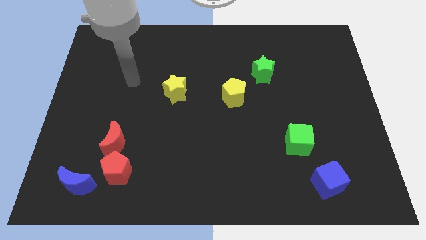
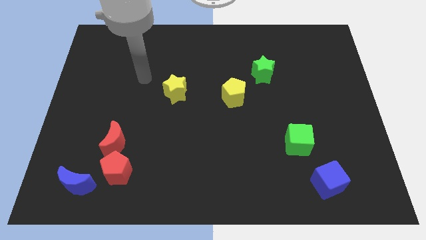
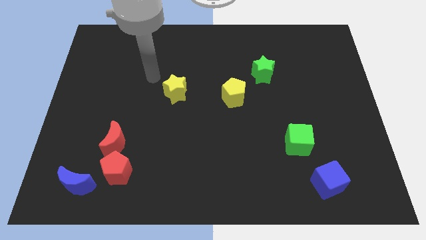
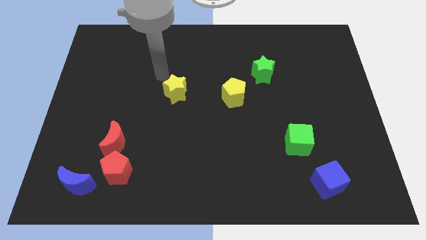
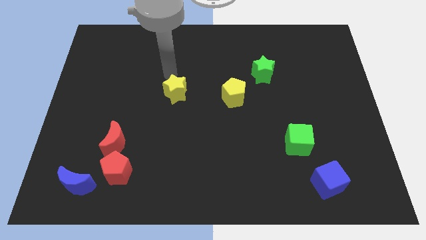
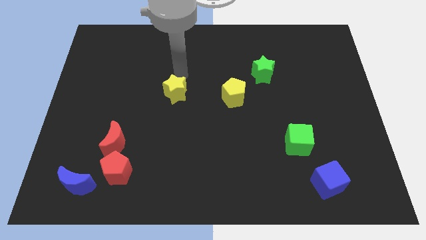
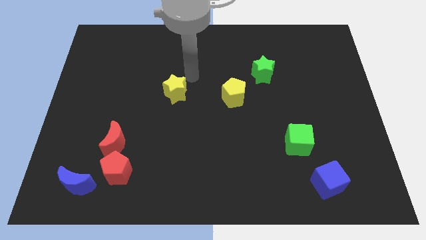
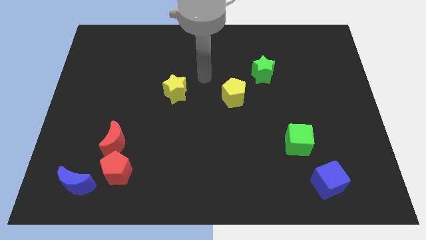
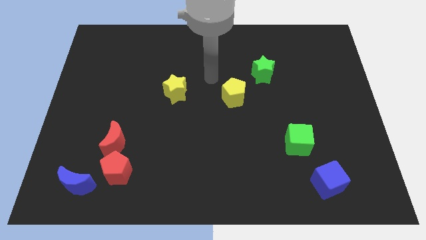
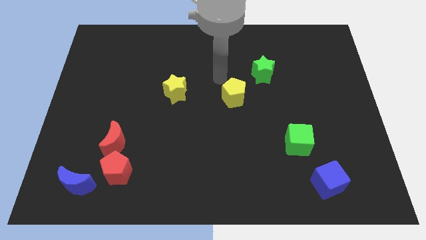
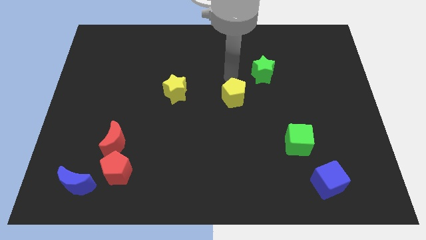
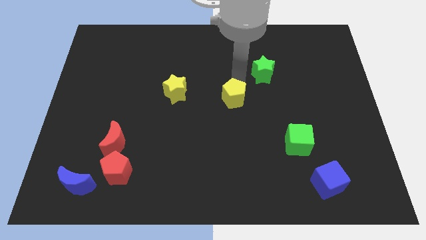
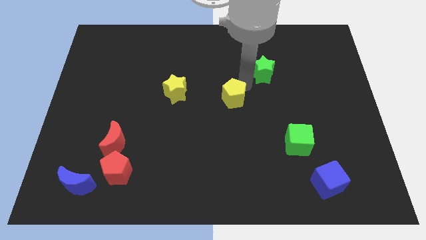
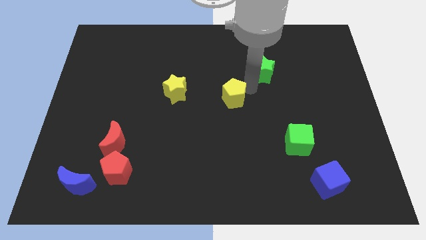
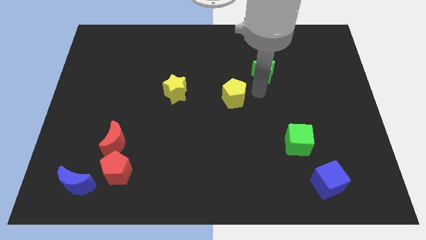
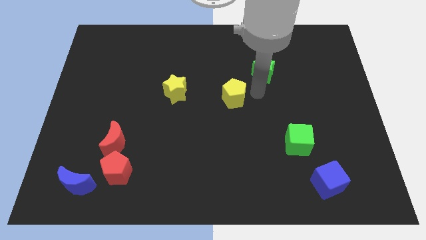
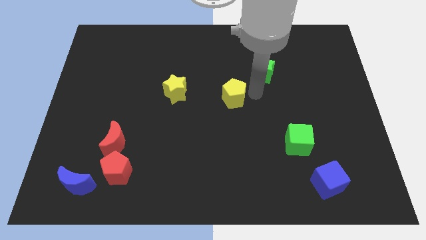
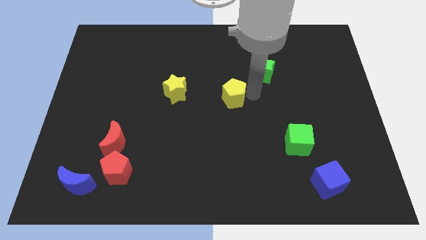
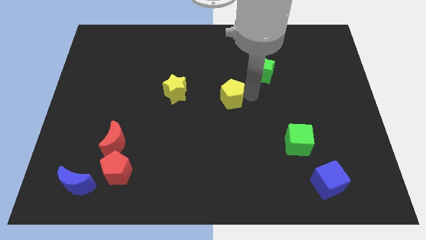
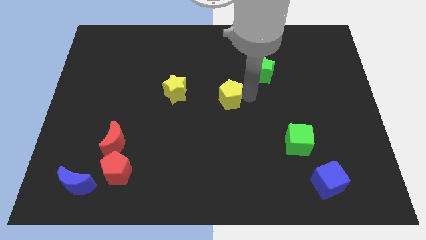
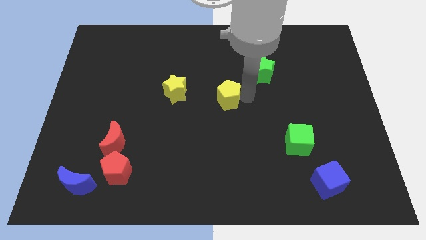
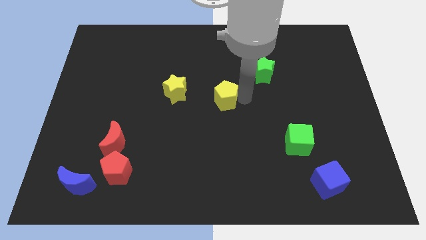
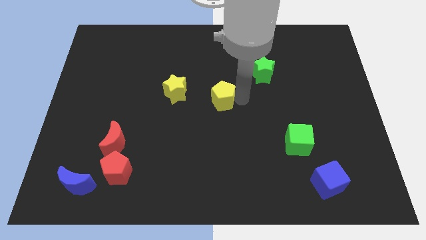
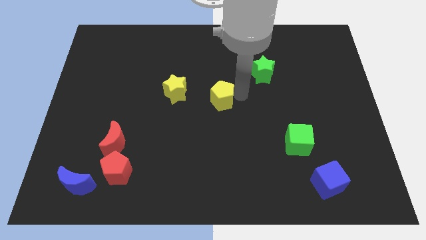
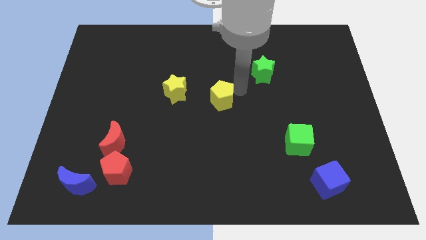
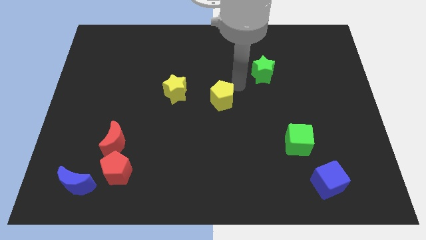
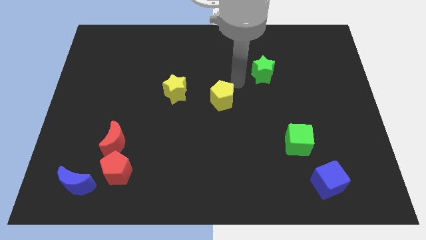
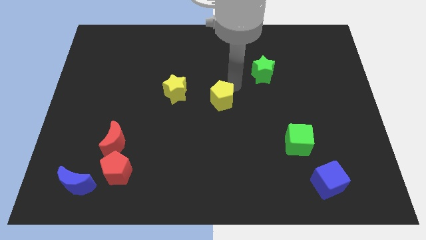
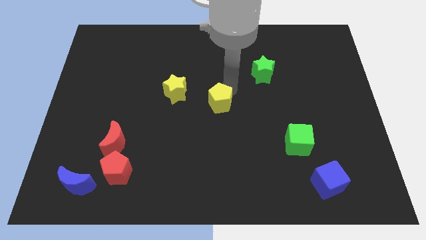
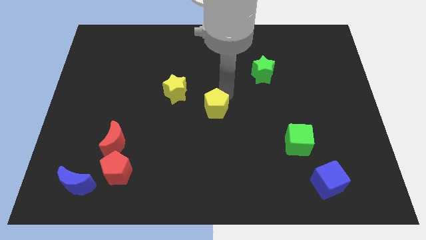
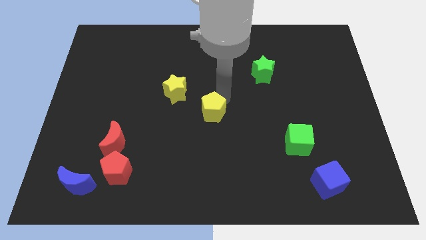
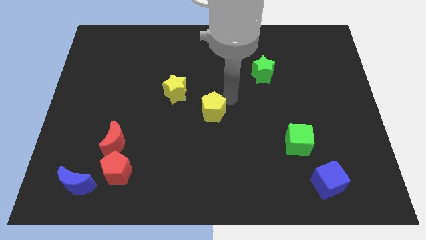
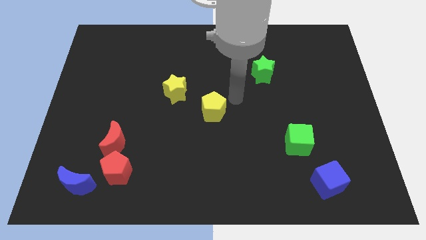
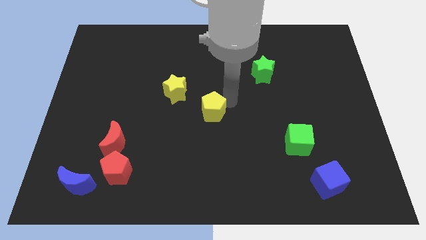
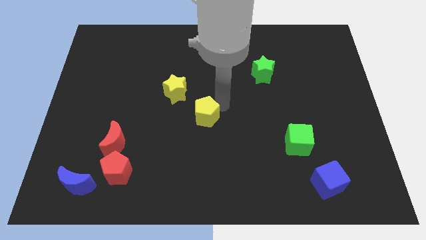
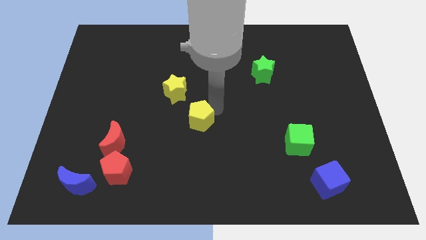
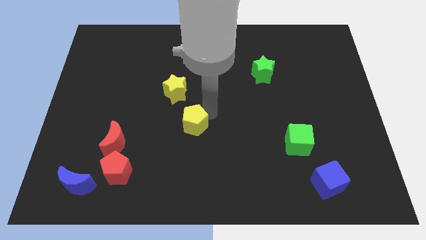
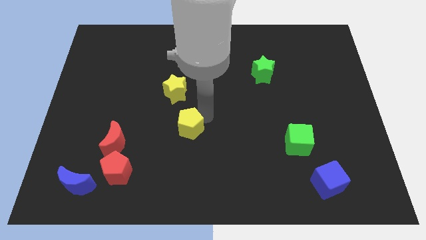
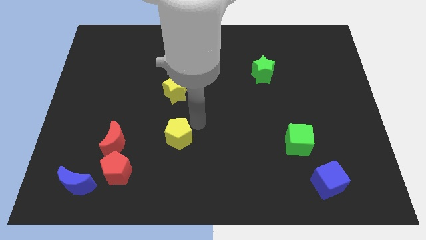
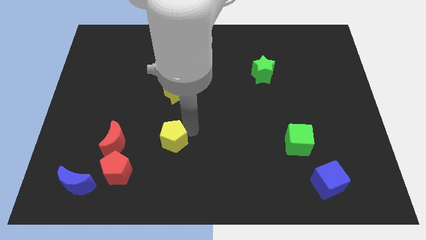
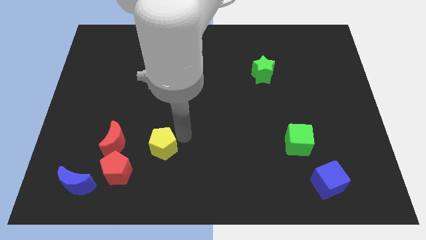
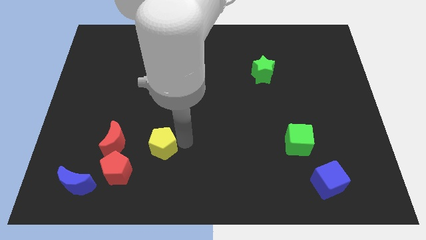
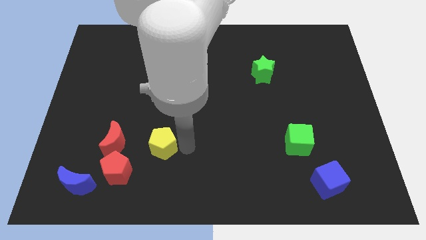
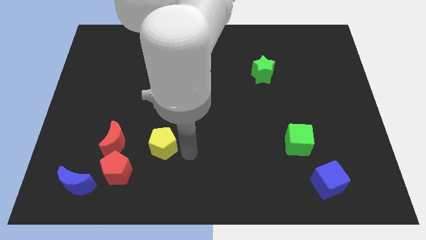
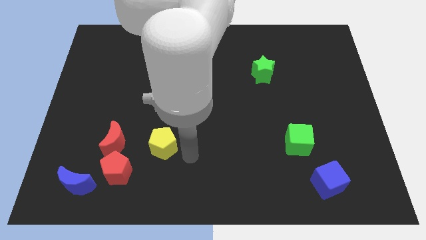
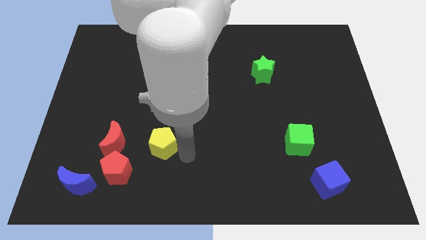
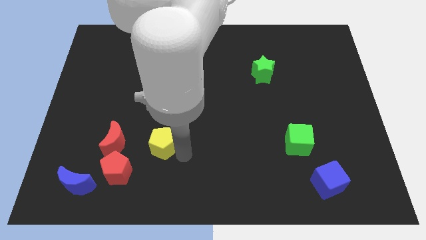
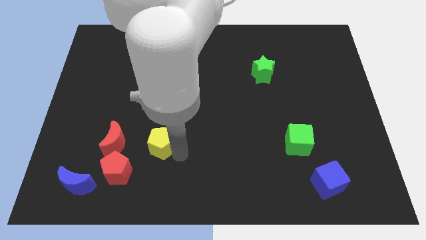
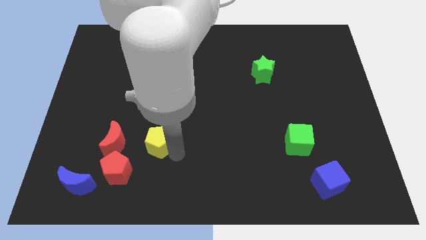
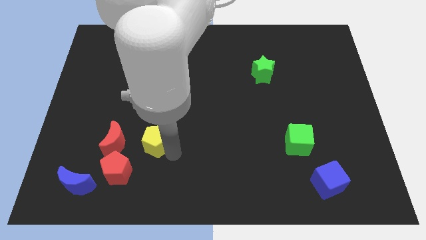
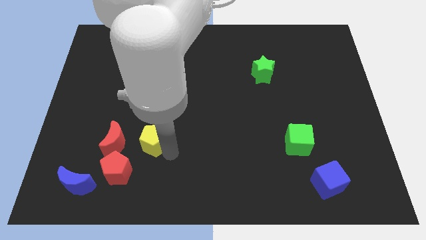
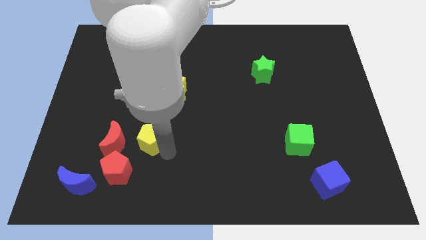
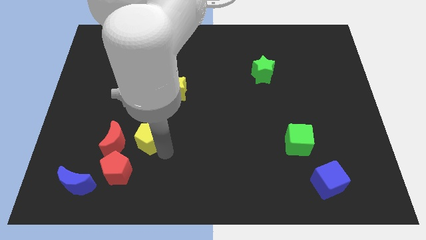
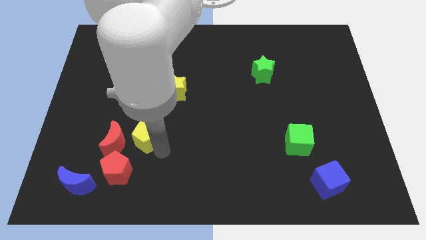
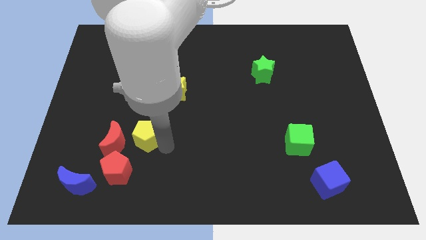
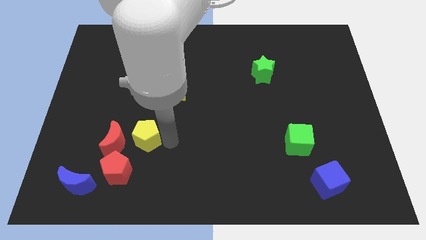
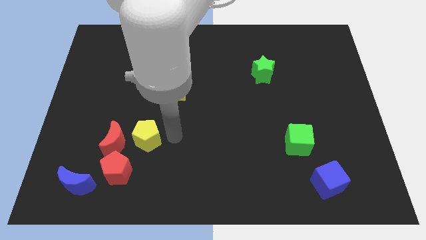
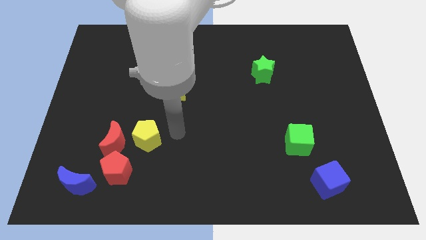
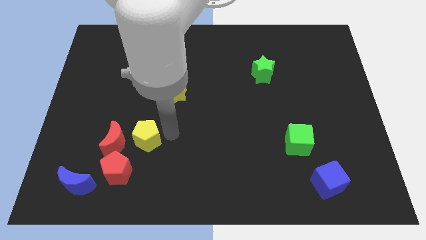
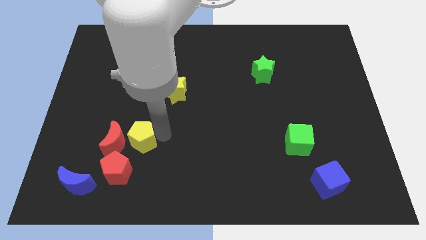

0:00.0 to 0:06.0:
push the yellow pentagon towards the red moon

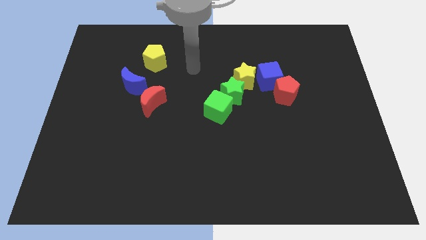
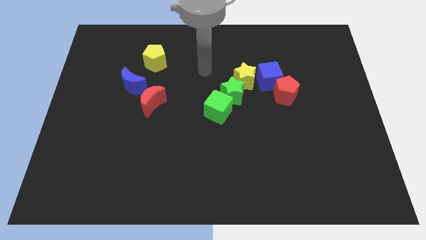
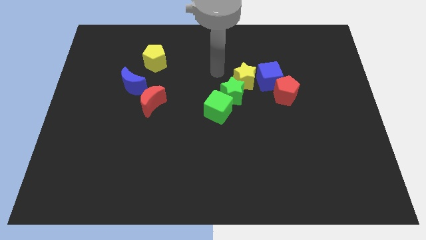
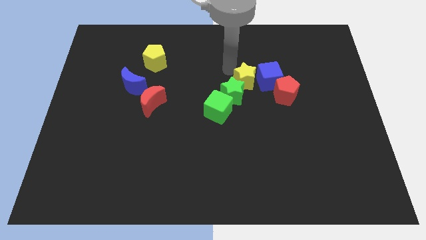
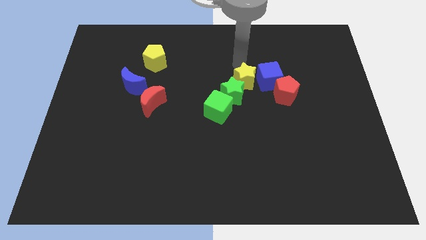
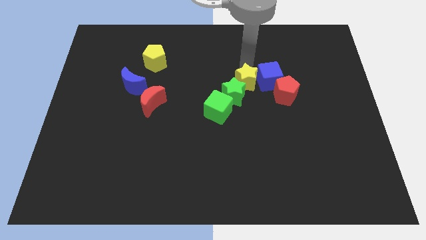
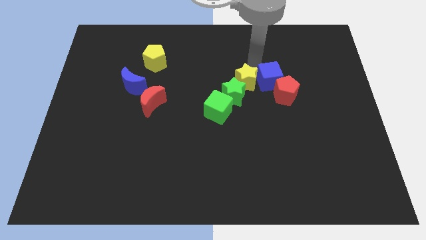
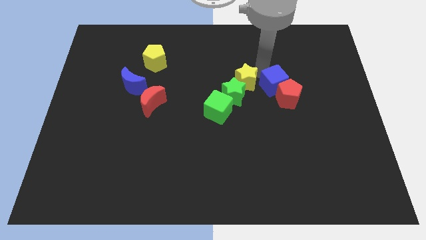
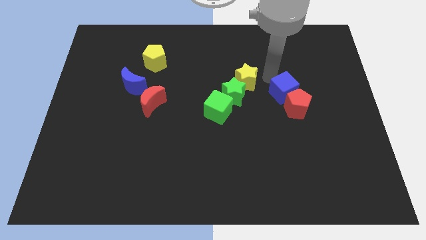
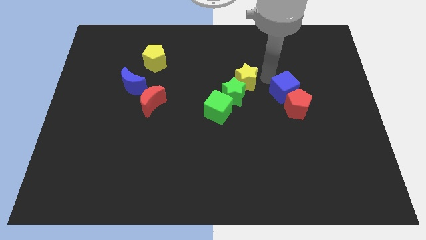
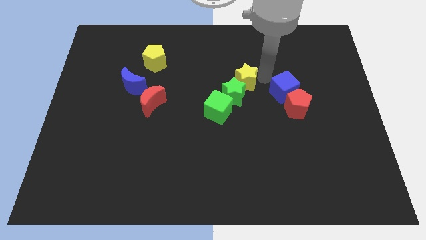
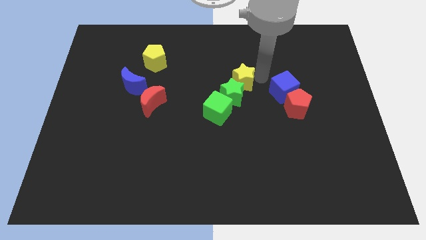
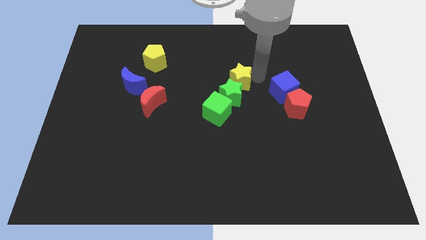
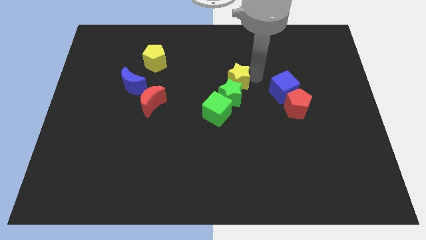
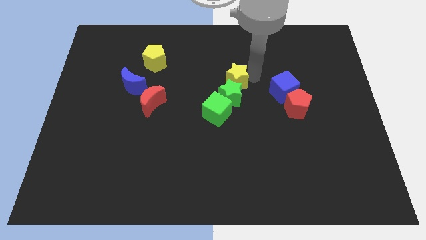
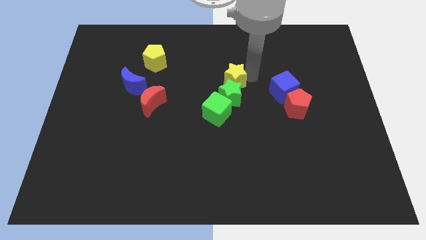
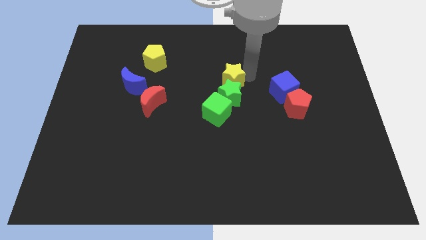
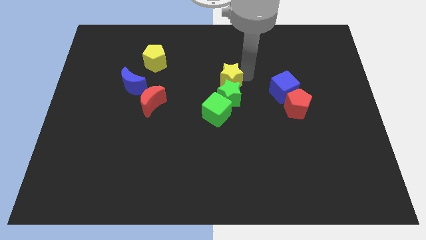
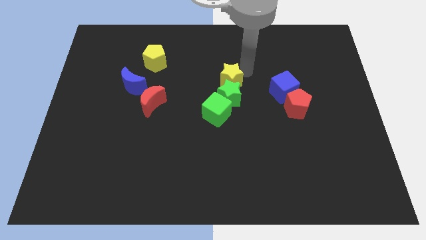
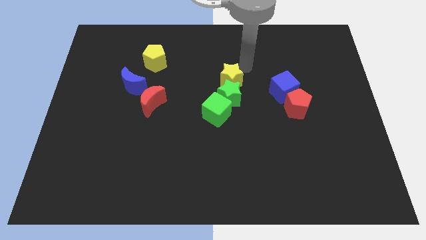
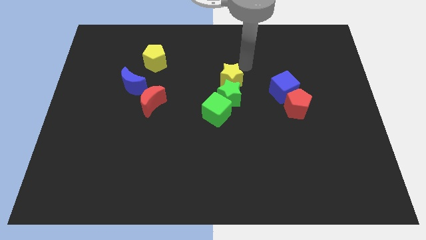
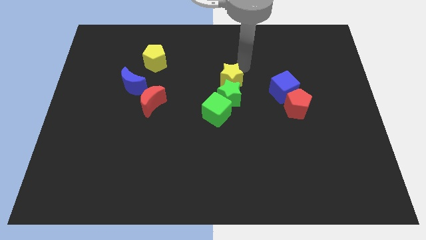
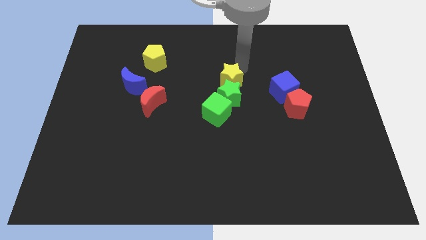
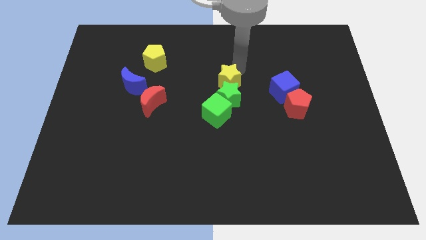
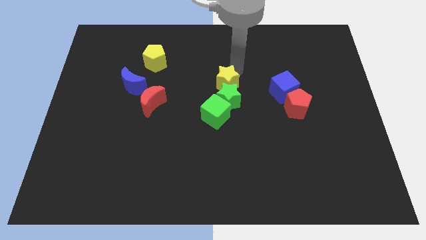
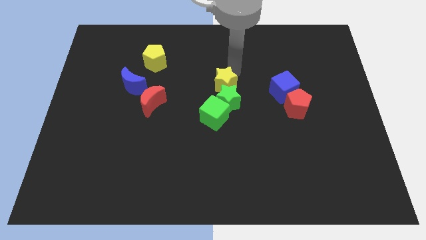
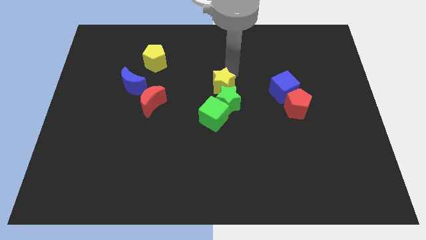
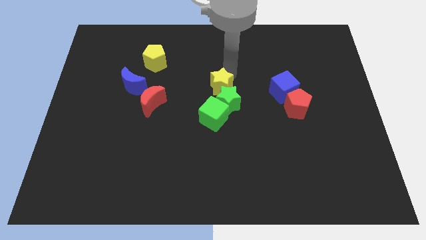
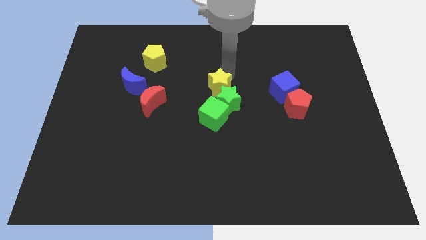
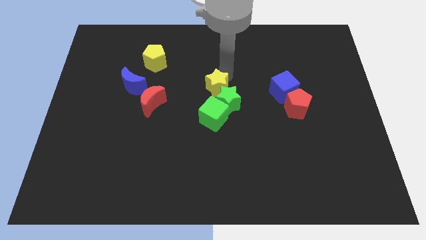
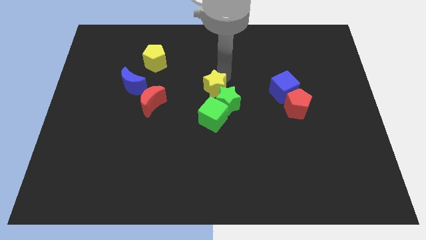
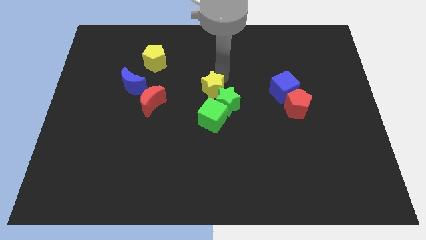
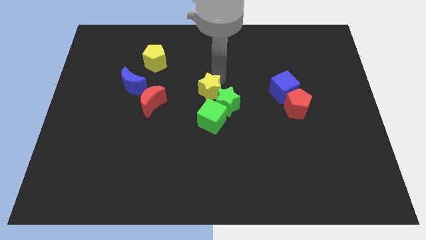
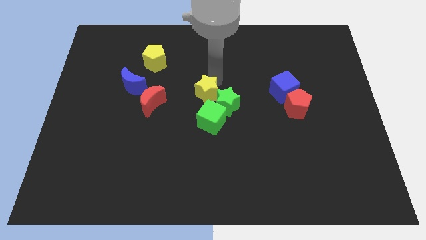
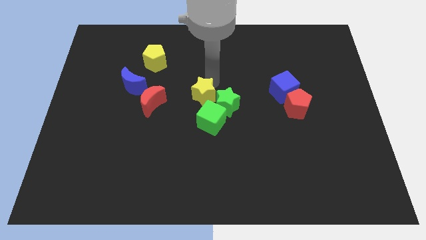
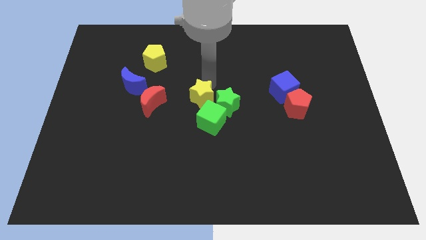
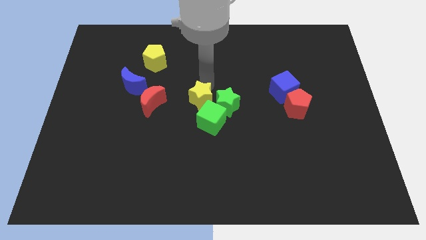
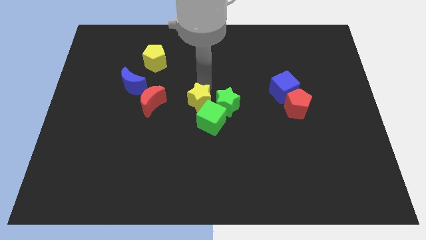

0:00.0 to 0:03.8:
slide the yellow star to the green cube
